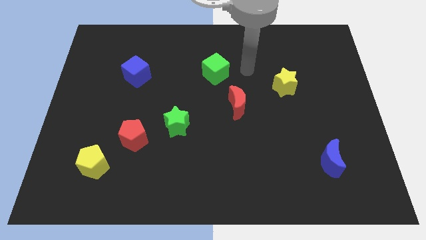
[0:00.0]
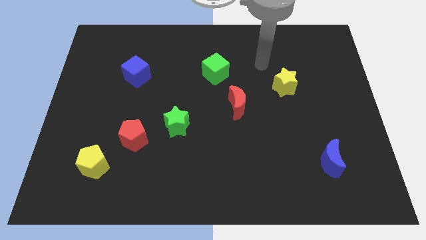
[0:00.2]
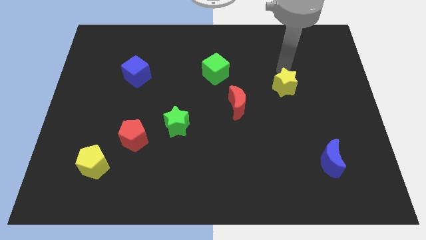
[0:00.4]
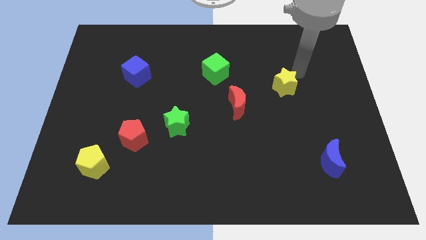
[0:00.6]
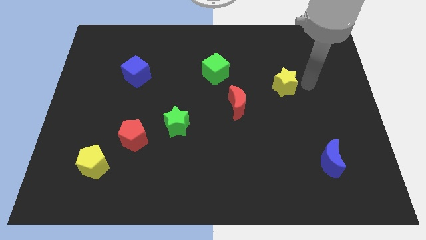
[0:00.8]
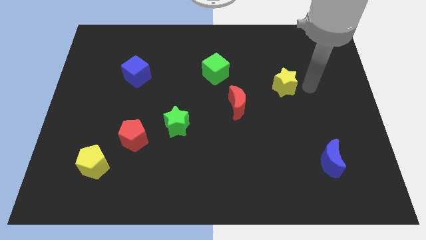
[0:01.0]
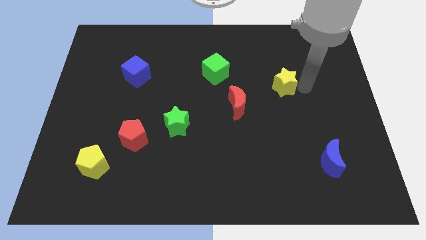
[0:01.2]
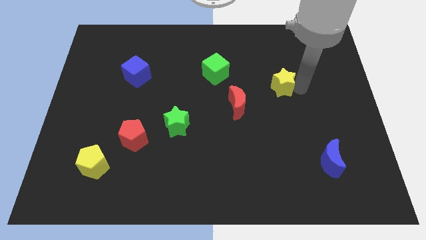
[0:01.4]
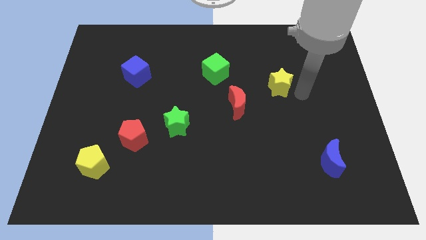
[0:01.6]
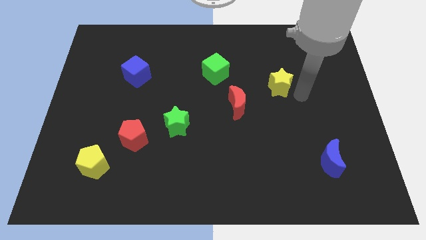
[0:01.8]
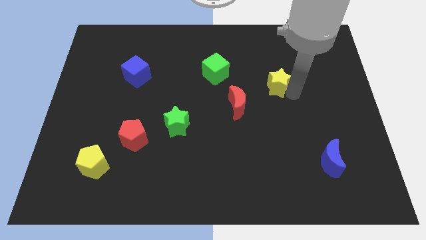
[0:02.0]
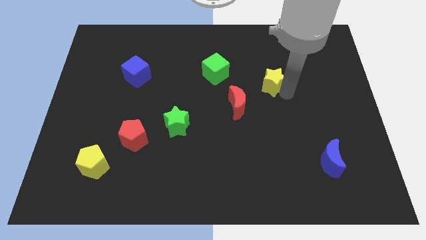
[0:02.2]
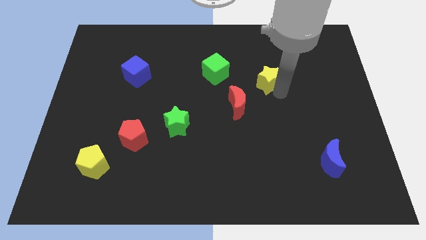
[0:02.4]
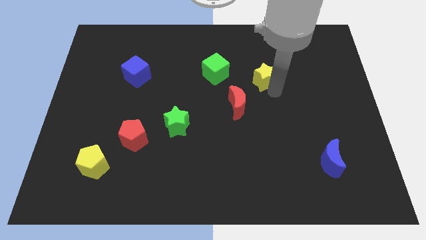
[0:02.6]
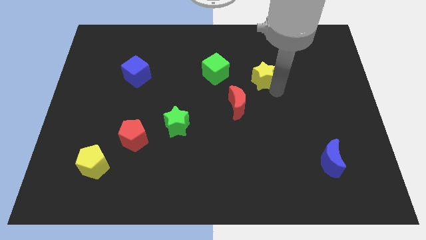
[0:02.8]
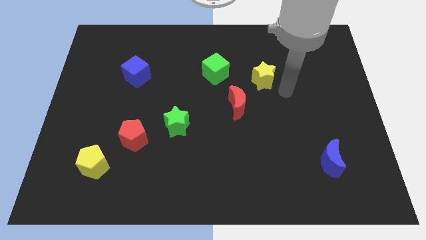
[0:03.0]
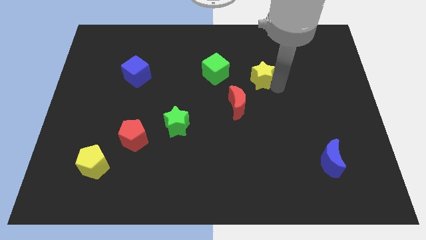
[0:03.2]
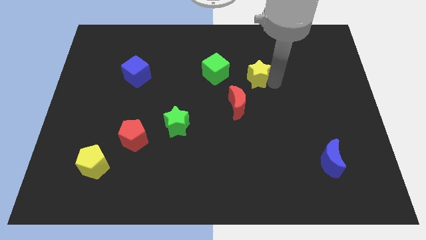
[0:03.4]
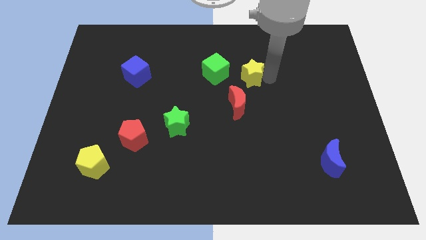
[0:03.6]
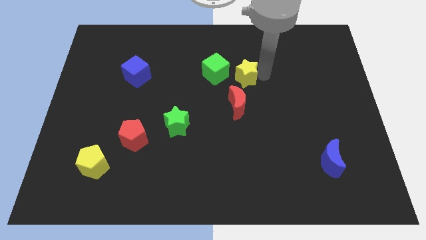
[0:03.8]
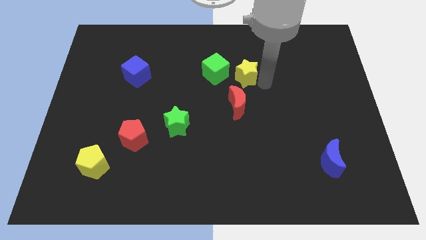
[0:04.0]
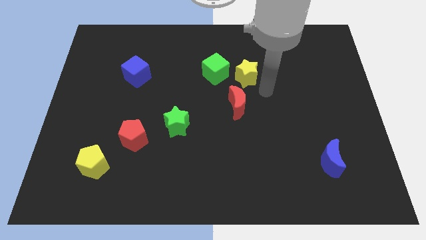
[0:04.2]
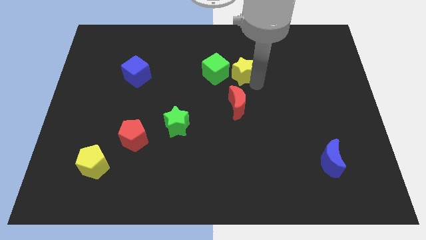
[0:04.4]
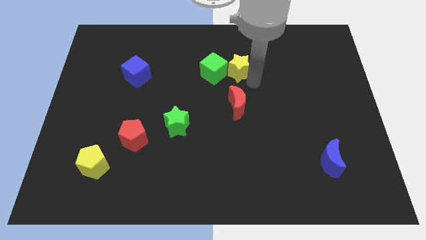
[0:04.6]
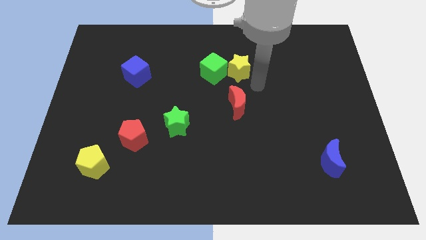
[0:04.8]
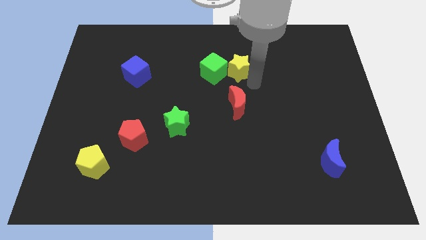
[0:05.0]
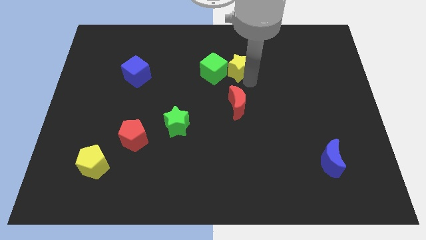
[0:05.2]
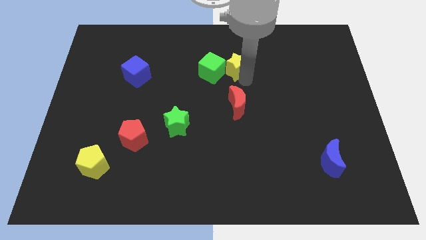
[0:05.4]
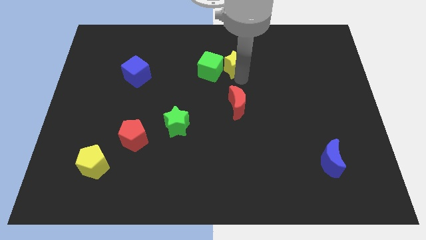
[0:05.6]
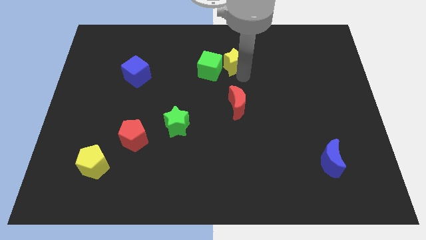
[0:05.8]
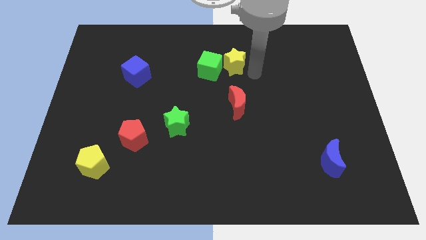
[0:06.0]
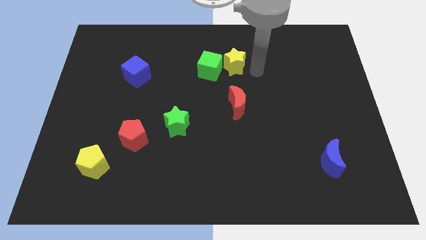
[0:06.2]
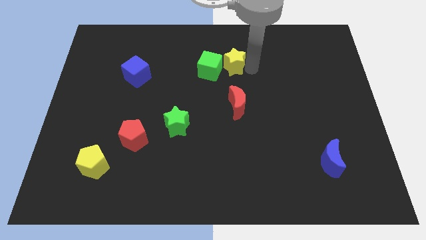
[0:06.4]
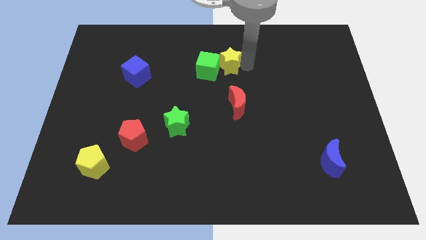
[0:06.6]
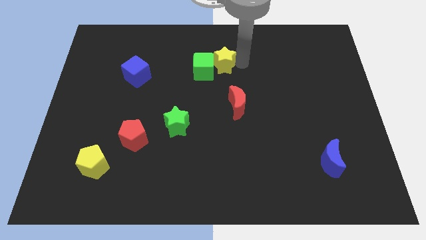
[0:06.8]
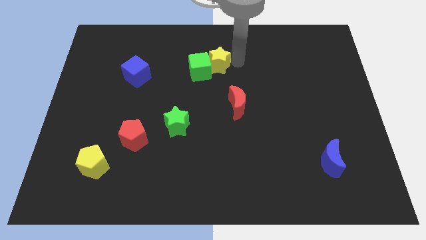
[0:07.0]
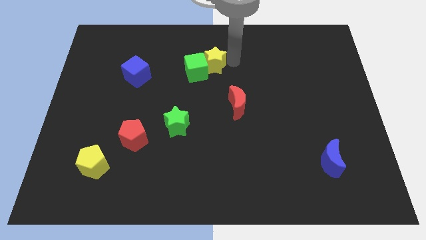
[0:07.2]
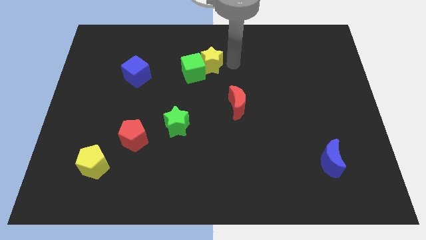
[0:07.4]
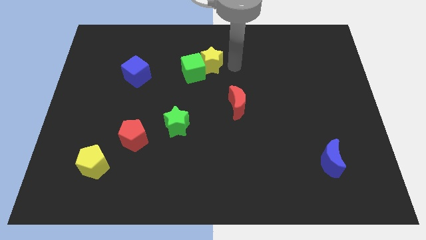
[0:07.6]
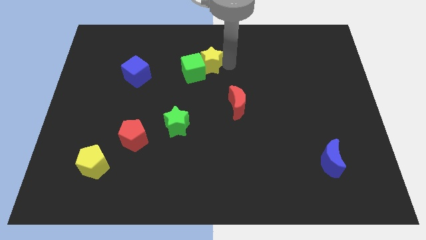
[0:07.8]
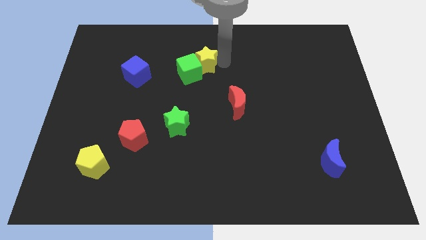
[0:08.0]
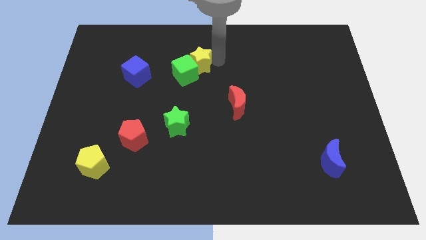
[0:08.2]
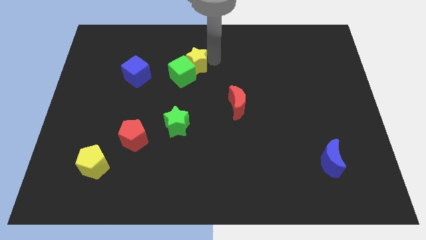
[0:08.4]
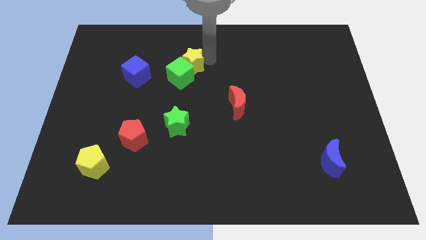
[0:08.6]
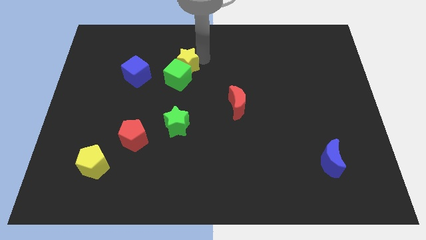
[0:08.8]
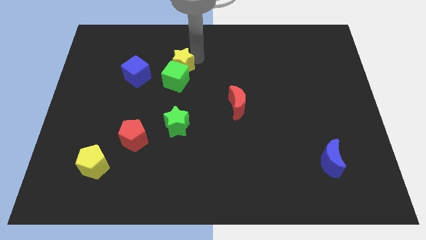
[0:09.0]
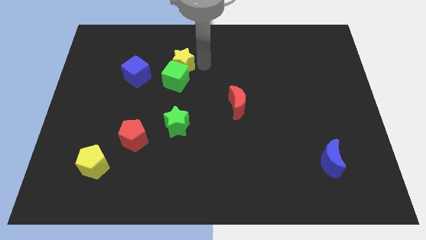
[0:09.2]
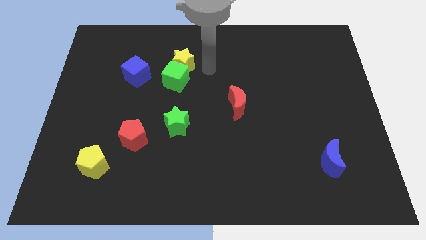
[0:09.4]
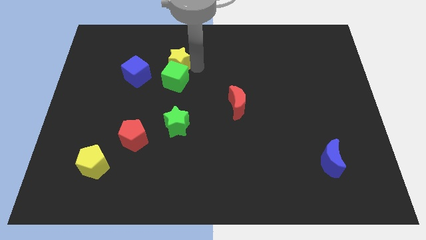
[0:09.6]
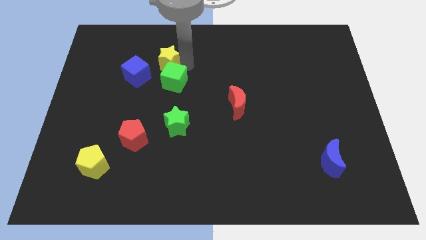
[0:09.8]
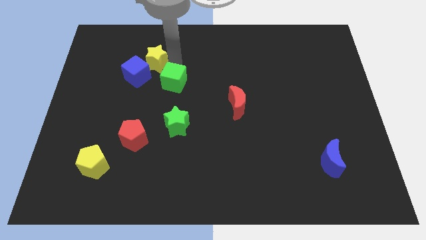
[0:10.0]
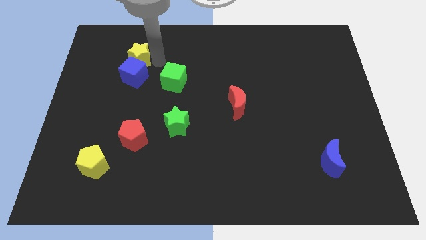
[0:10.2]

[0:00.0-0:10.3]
slide the yellow star to the top left side of the blue cube

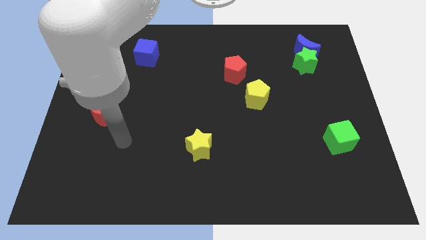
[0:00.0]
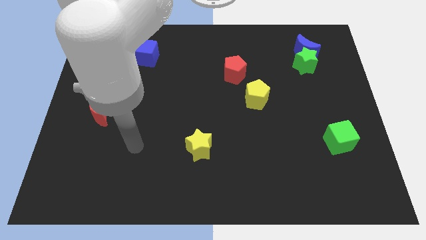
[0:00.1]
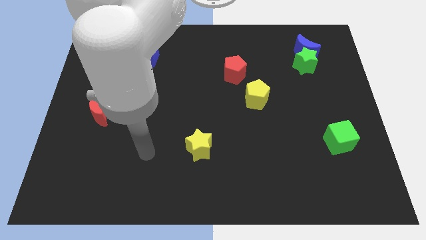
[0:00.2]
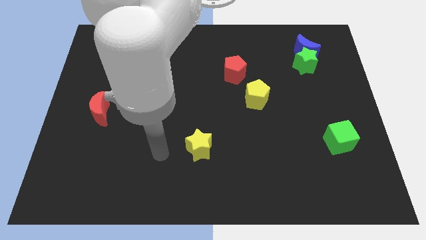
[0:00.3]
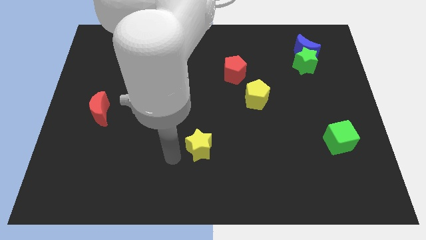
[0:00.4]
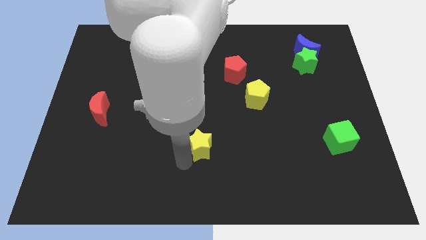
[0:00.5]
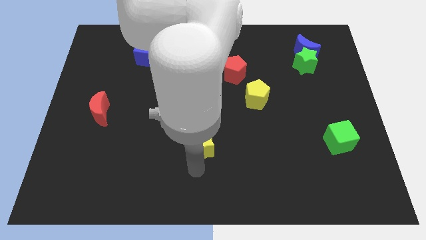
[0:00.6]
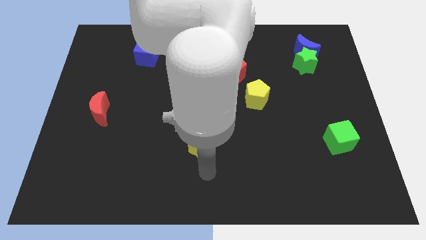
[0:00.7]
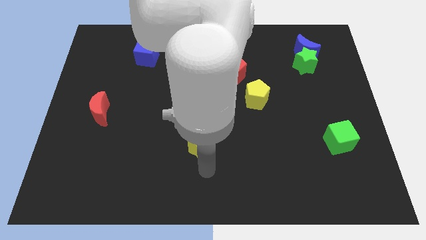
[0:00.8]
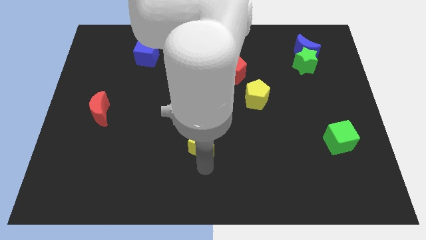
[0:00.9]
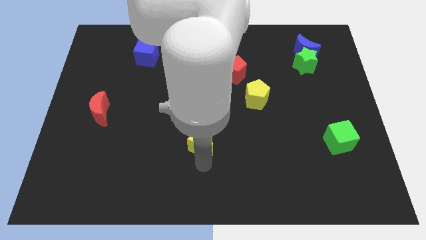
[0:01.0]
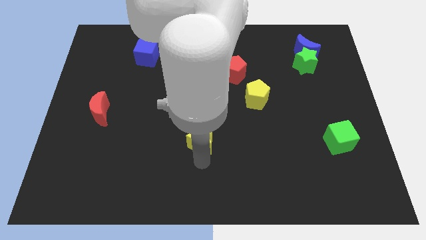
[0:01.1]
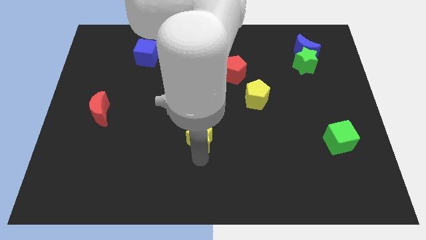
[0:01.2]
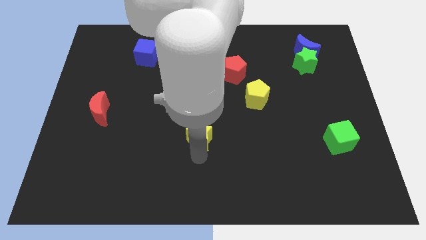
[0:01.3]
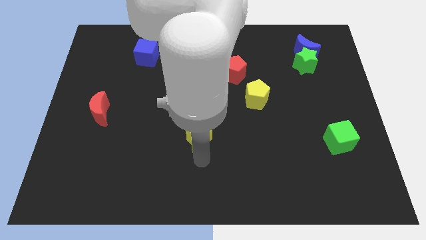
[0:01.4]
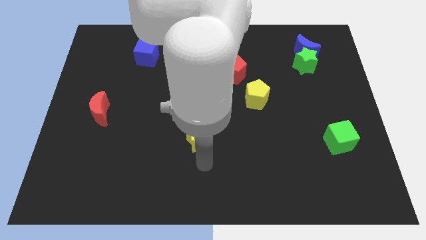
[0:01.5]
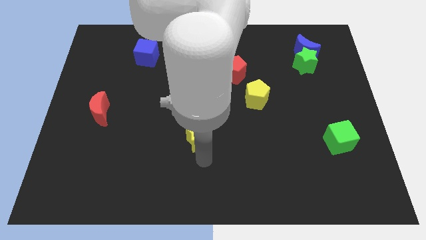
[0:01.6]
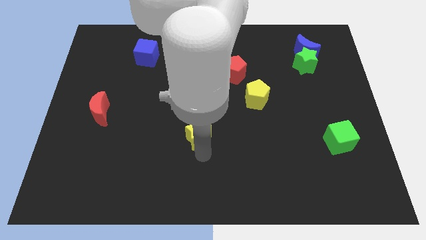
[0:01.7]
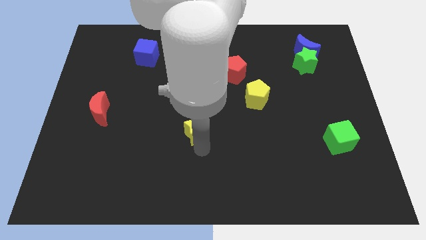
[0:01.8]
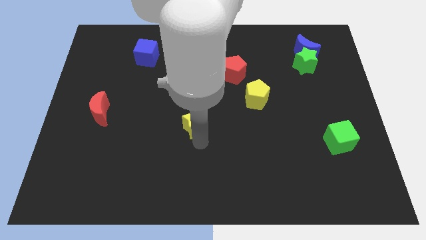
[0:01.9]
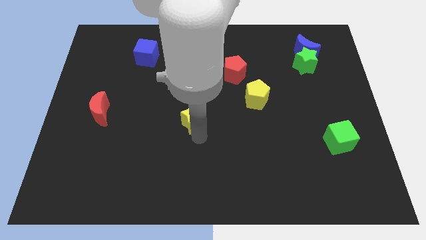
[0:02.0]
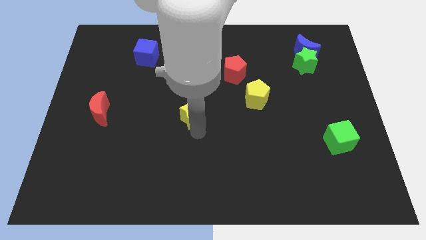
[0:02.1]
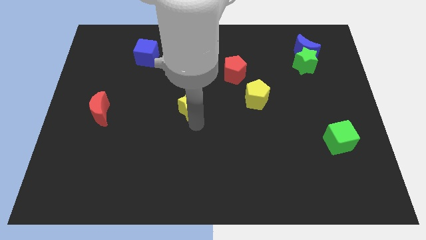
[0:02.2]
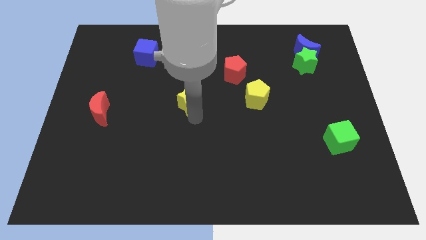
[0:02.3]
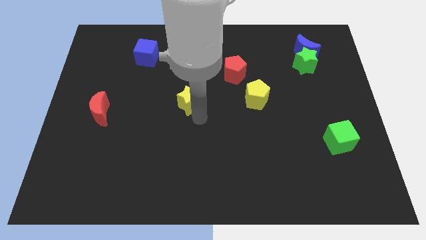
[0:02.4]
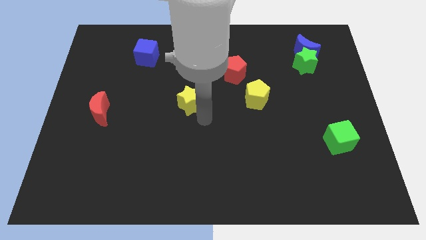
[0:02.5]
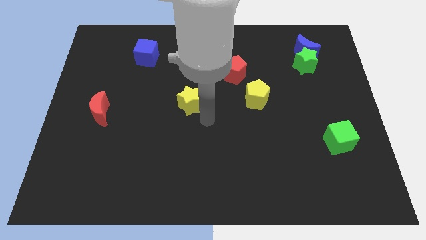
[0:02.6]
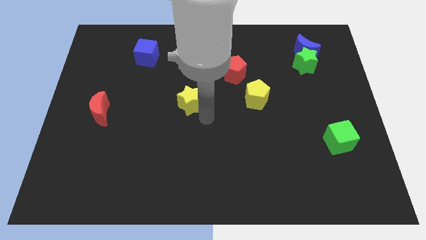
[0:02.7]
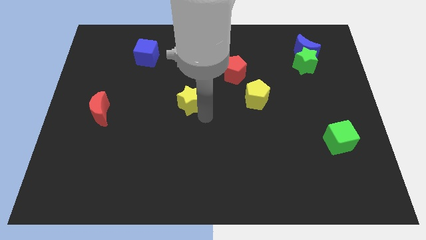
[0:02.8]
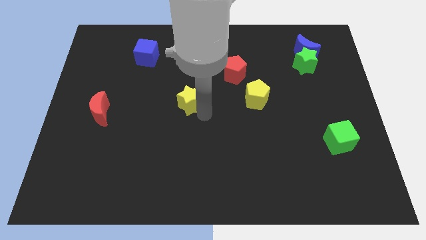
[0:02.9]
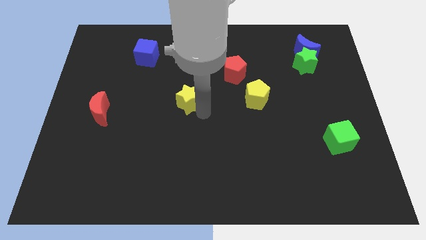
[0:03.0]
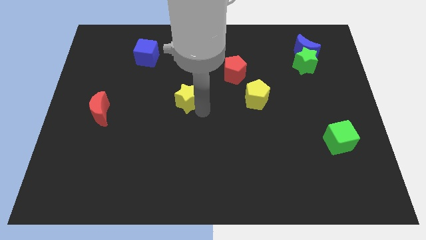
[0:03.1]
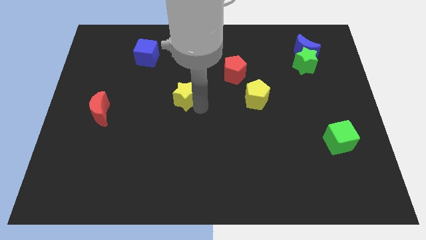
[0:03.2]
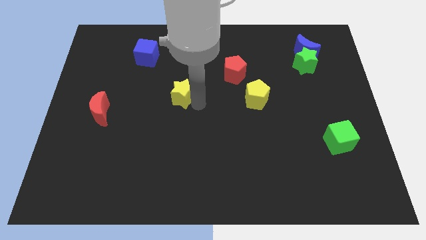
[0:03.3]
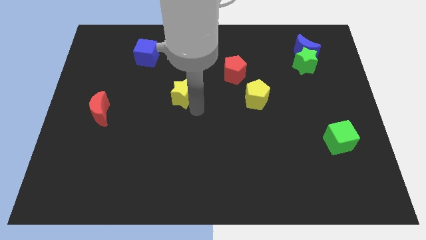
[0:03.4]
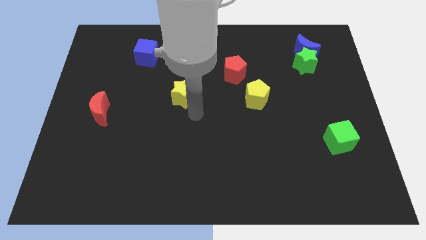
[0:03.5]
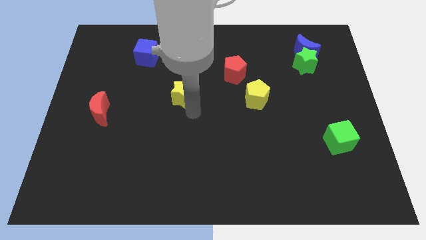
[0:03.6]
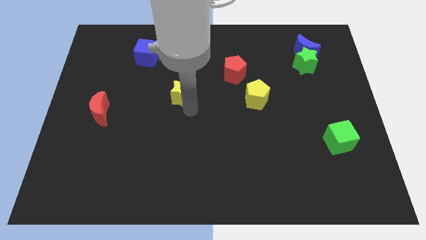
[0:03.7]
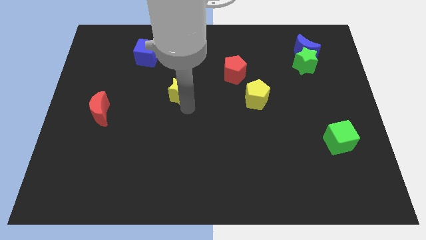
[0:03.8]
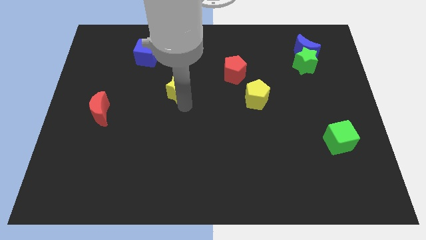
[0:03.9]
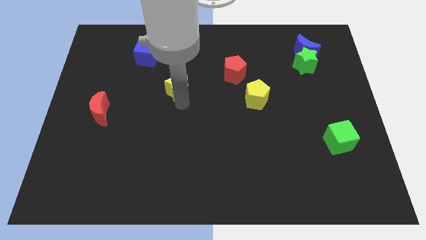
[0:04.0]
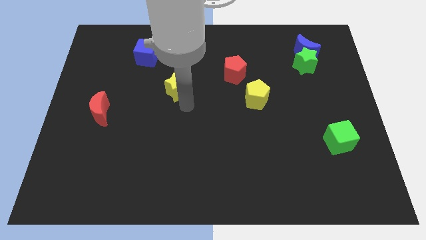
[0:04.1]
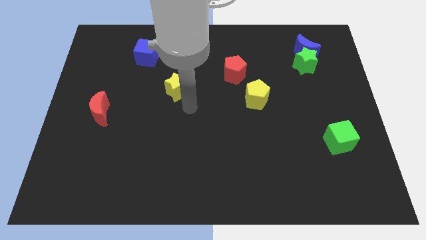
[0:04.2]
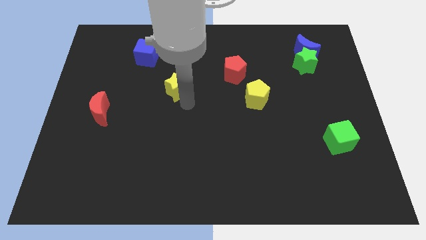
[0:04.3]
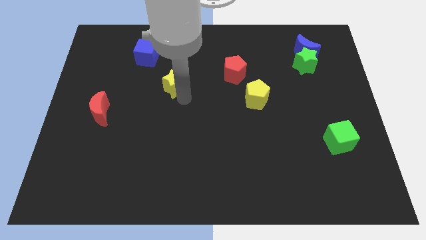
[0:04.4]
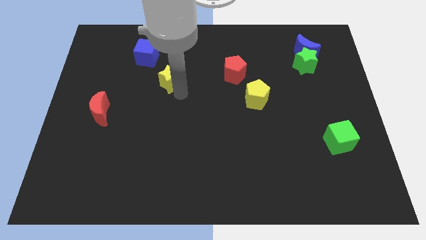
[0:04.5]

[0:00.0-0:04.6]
move the yellow star to the bottom right side of the blue cube
